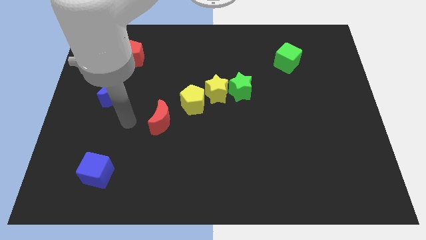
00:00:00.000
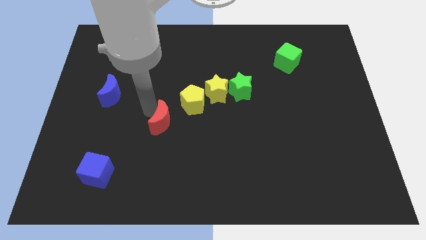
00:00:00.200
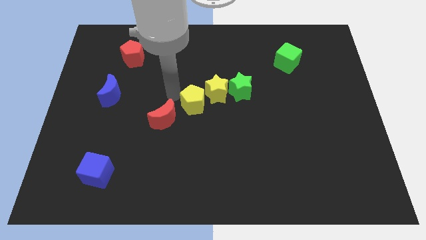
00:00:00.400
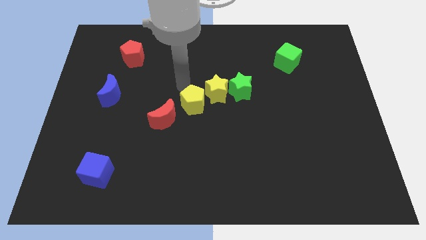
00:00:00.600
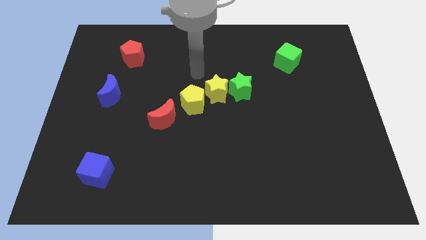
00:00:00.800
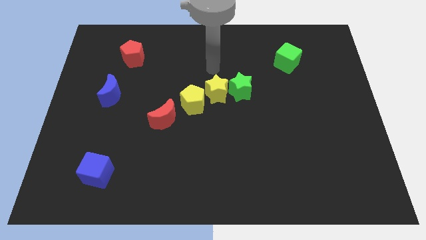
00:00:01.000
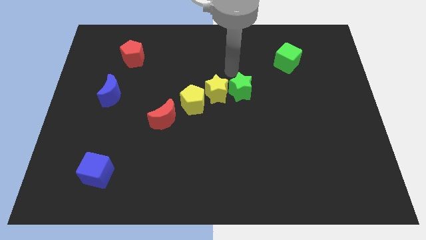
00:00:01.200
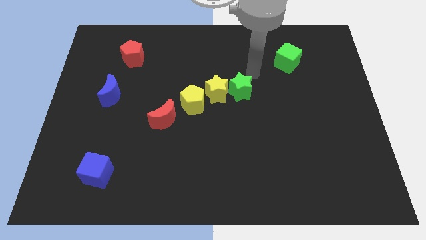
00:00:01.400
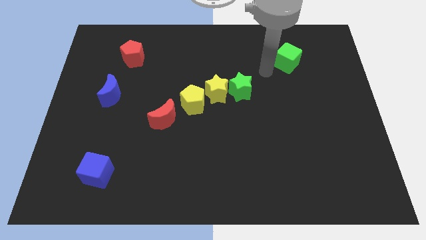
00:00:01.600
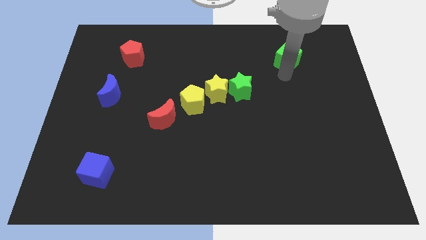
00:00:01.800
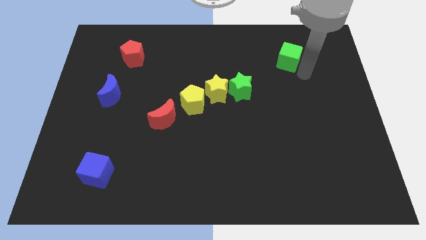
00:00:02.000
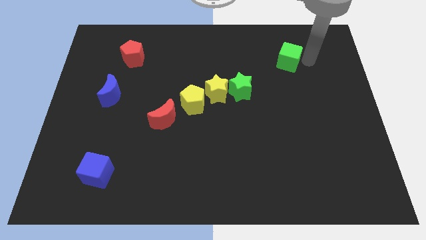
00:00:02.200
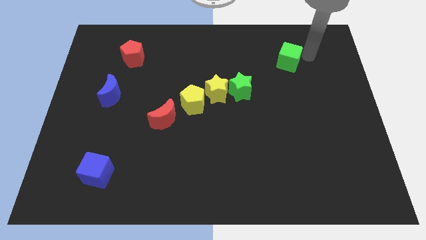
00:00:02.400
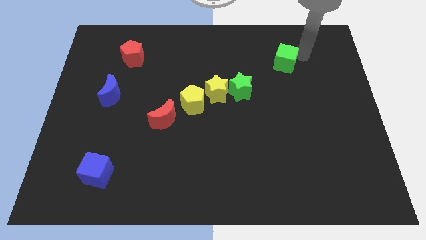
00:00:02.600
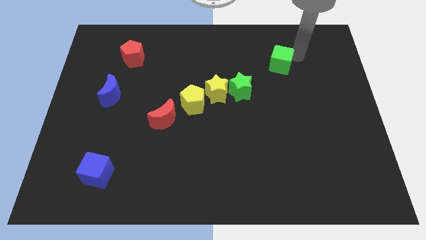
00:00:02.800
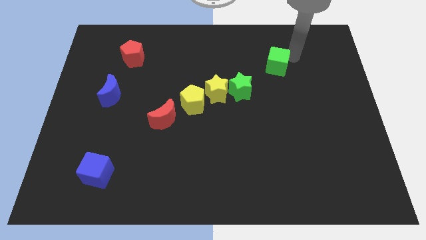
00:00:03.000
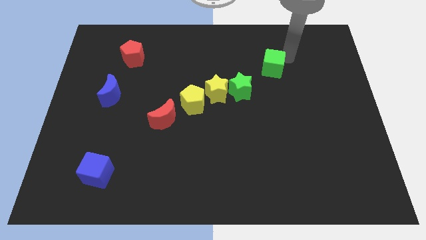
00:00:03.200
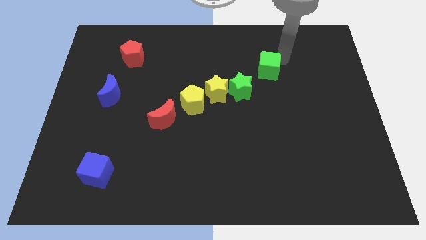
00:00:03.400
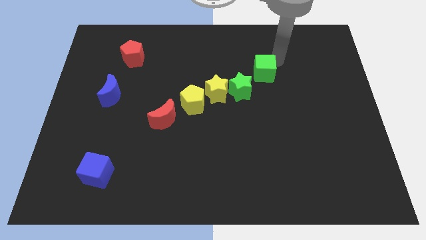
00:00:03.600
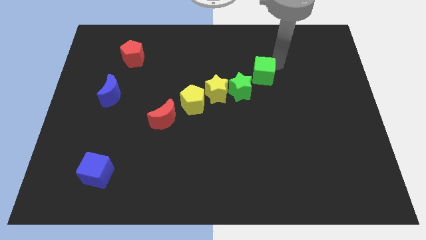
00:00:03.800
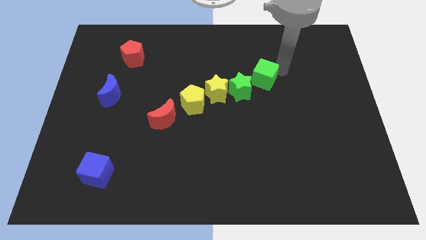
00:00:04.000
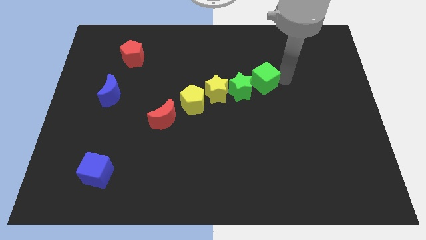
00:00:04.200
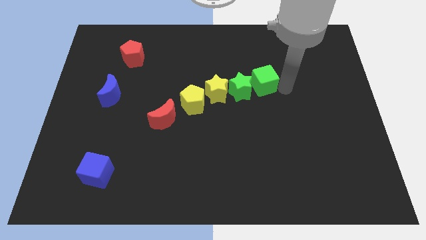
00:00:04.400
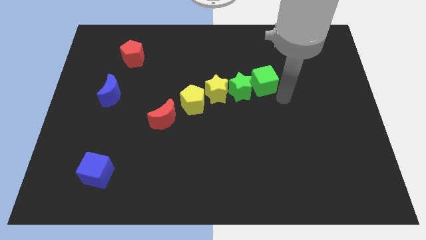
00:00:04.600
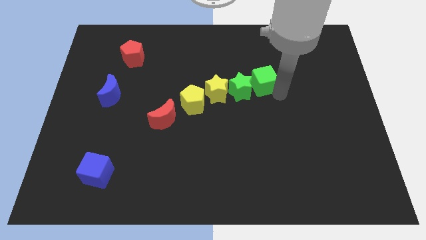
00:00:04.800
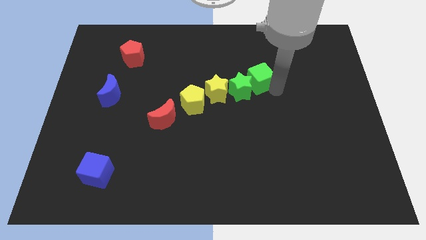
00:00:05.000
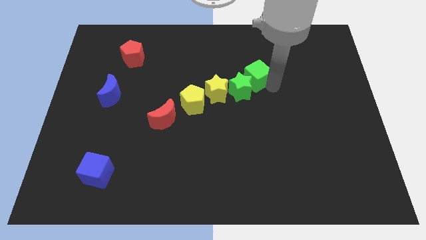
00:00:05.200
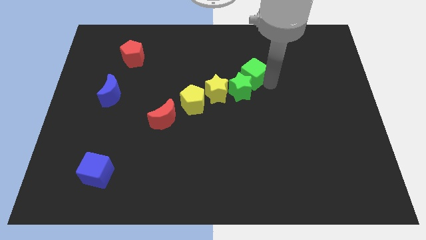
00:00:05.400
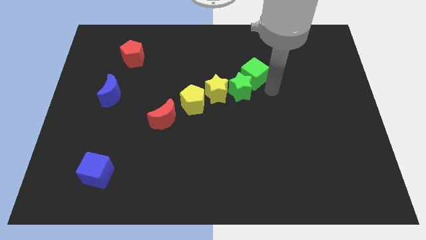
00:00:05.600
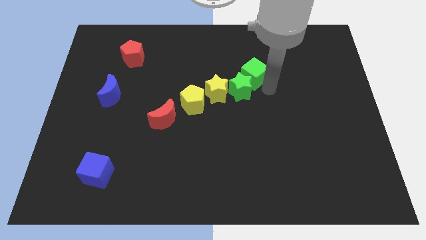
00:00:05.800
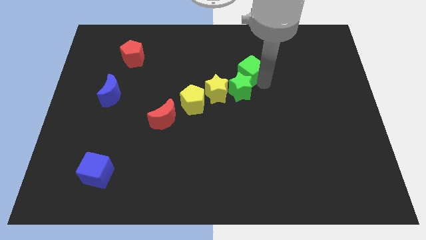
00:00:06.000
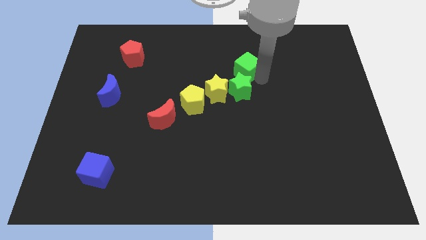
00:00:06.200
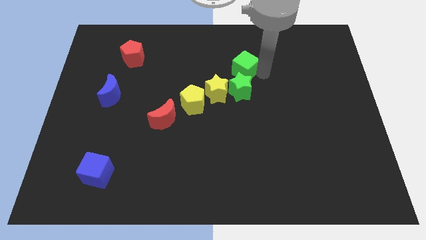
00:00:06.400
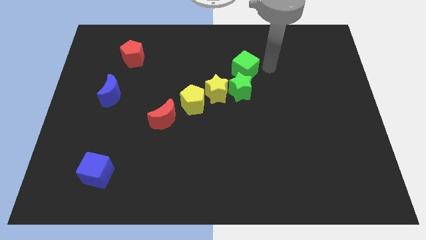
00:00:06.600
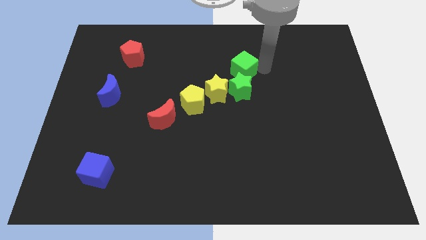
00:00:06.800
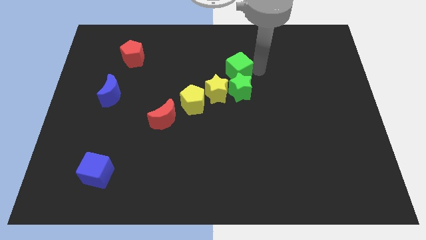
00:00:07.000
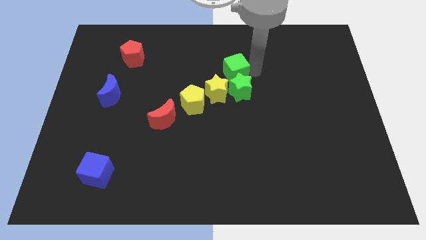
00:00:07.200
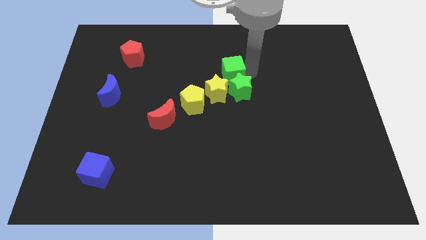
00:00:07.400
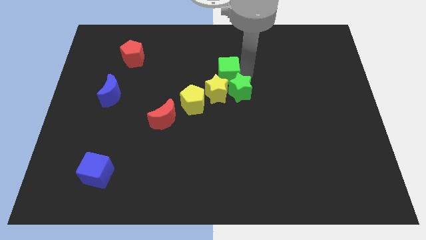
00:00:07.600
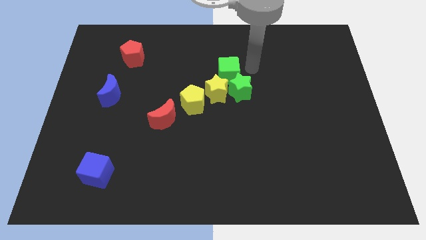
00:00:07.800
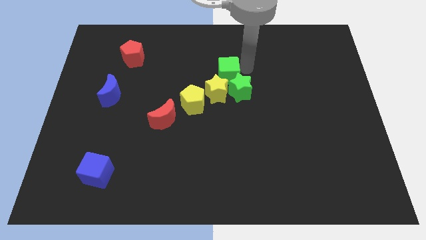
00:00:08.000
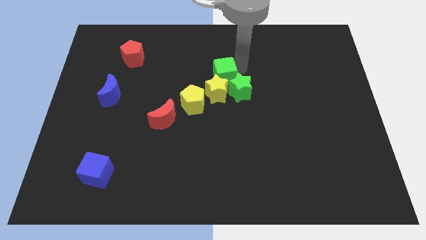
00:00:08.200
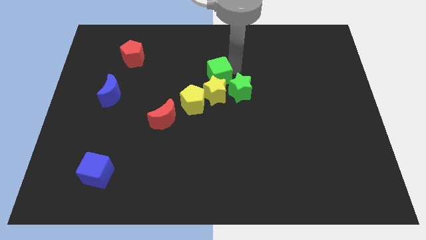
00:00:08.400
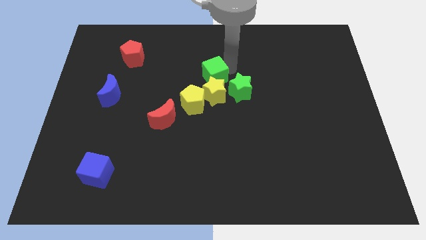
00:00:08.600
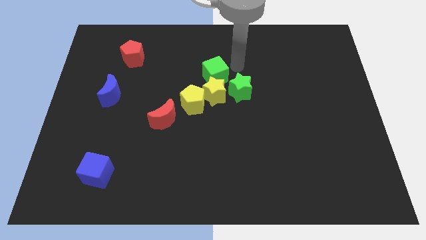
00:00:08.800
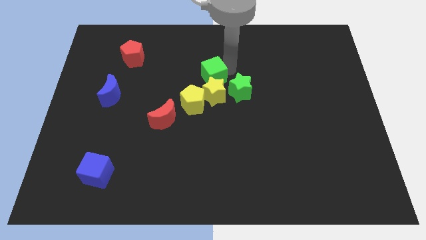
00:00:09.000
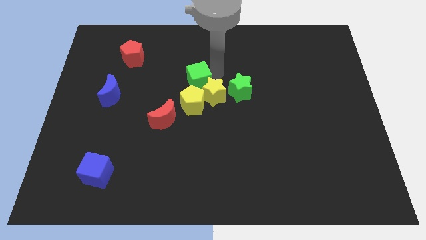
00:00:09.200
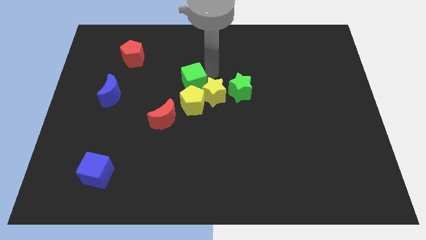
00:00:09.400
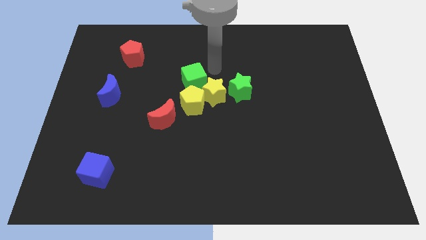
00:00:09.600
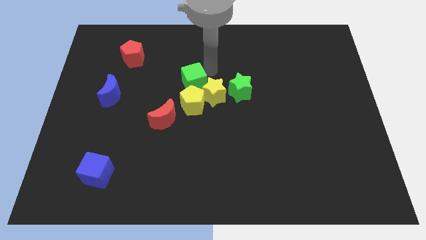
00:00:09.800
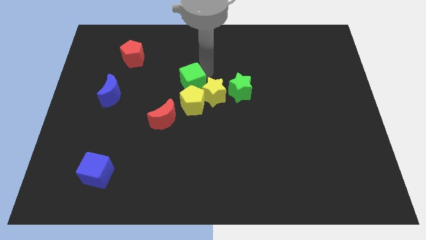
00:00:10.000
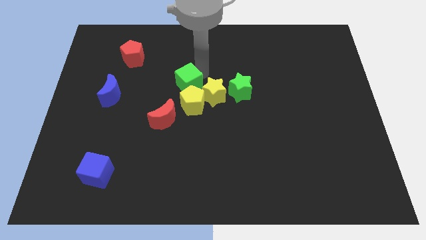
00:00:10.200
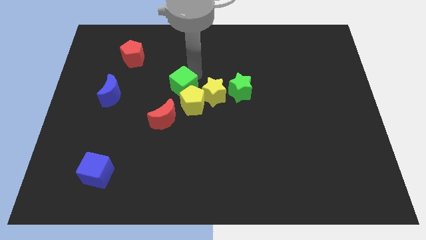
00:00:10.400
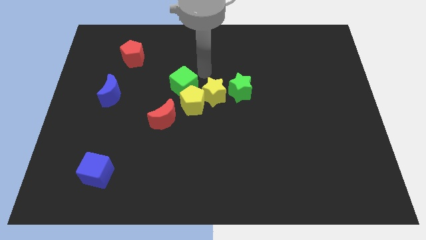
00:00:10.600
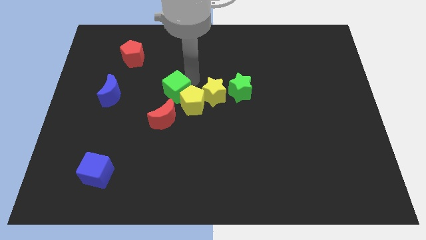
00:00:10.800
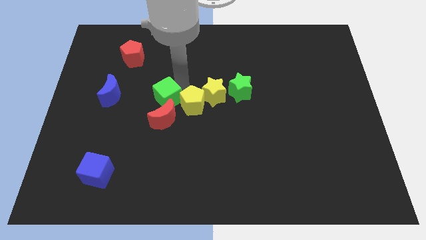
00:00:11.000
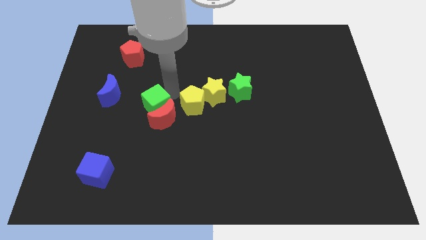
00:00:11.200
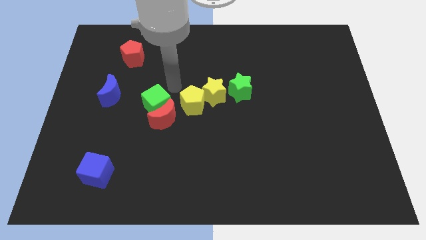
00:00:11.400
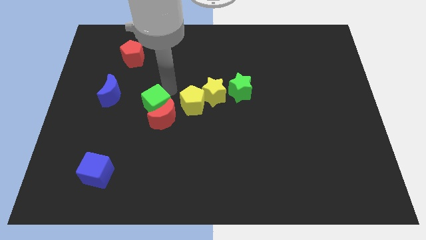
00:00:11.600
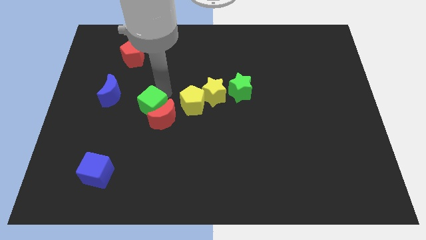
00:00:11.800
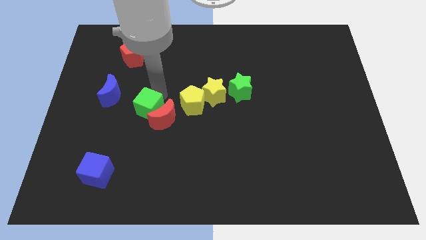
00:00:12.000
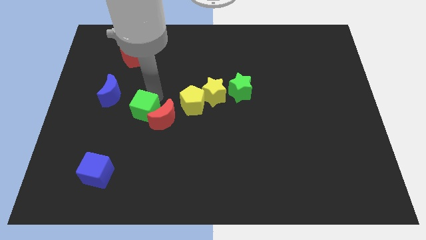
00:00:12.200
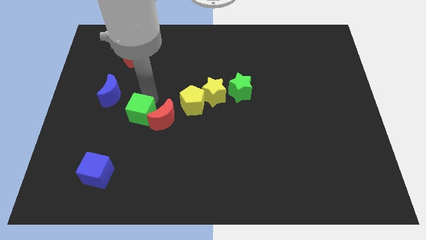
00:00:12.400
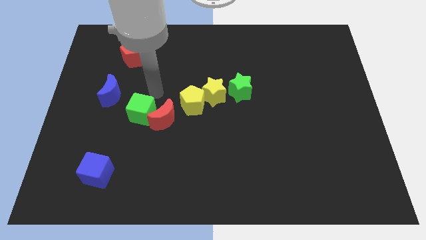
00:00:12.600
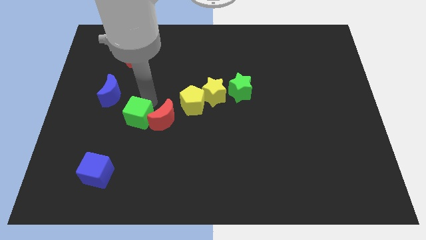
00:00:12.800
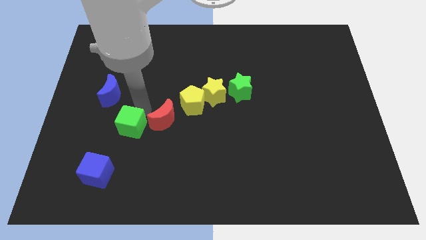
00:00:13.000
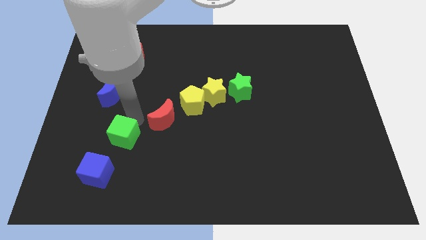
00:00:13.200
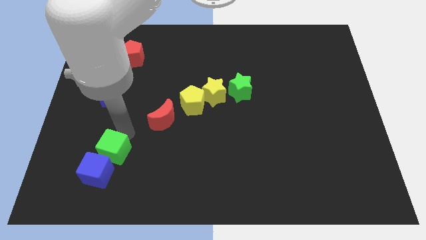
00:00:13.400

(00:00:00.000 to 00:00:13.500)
put the green cube close to the blue cube
